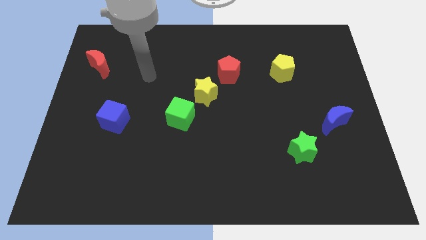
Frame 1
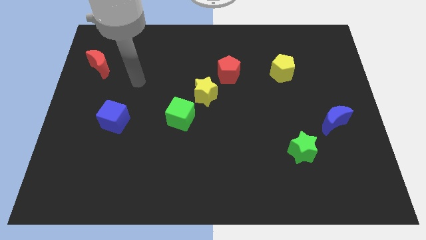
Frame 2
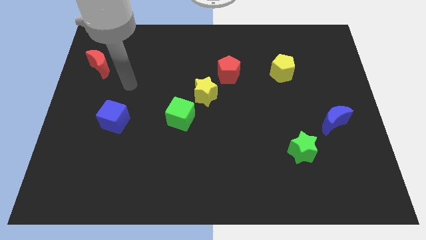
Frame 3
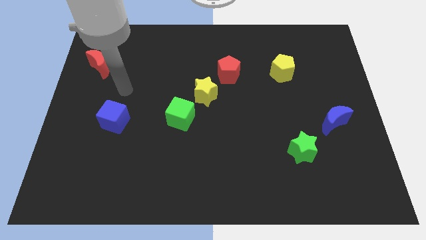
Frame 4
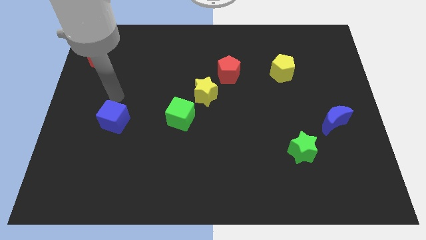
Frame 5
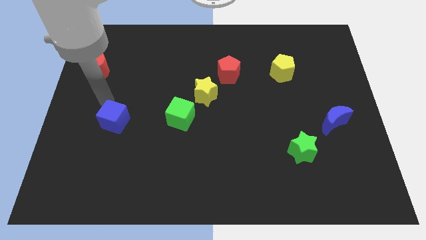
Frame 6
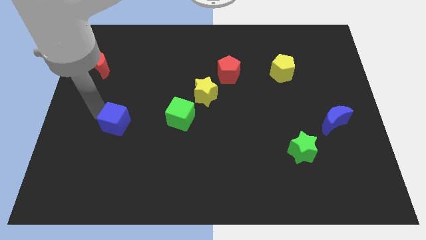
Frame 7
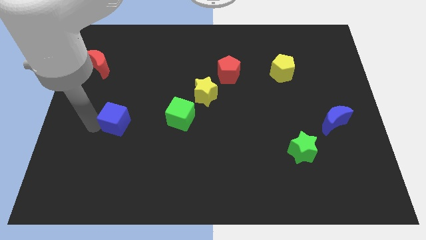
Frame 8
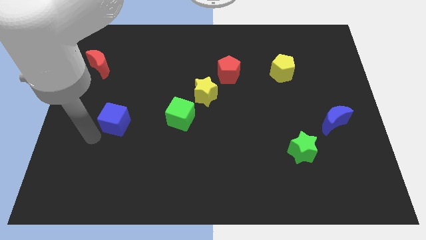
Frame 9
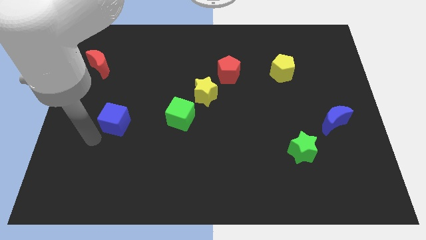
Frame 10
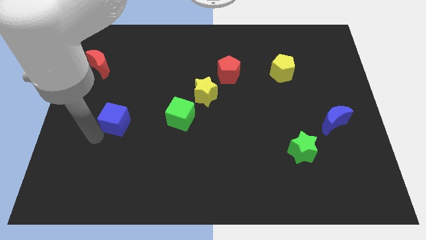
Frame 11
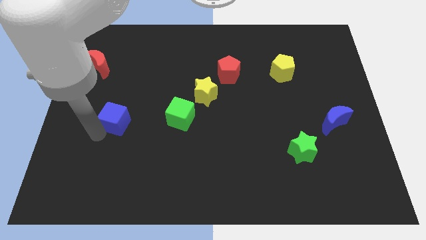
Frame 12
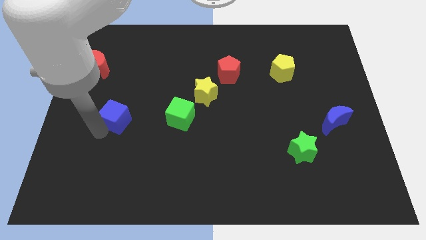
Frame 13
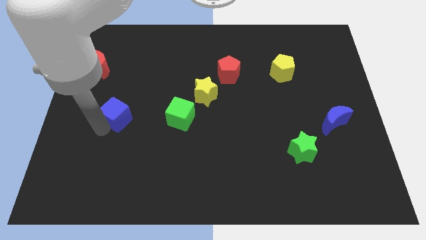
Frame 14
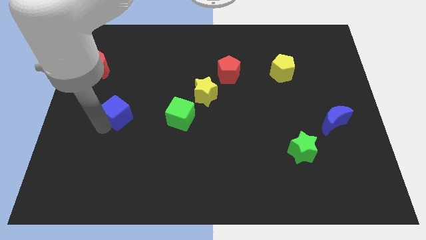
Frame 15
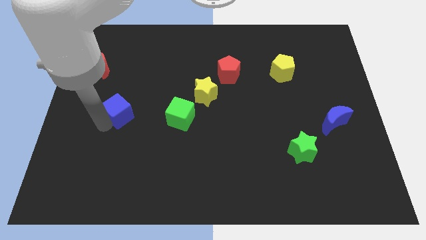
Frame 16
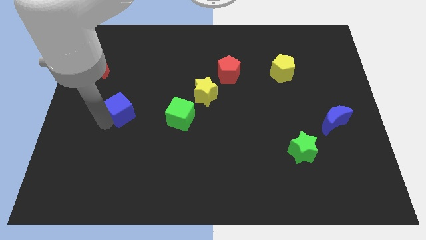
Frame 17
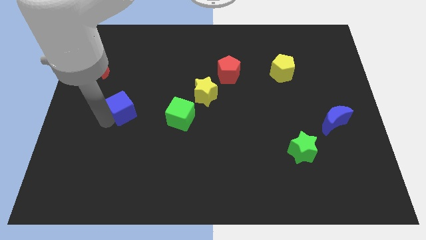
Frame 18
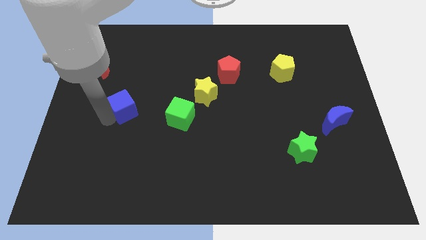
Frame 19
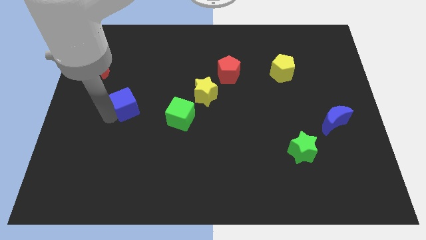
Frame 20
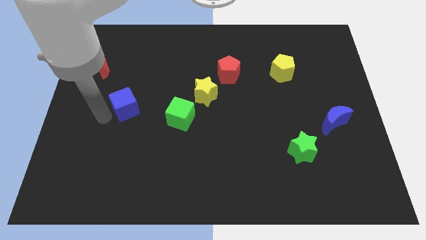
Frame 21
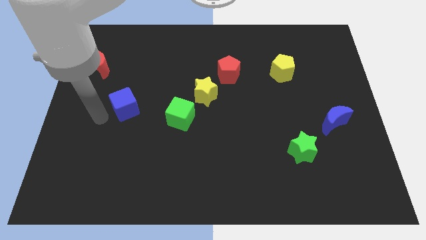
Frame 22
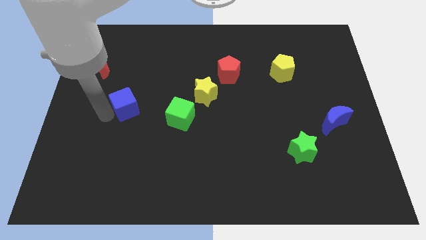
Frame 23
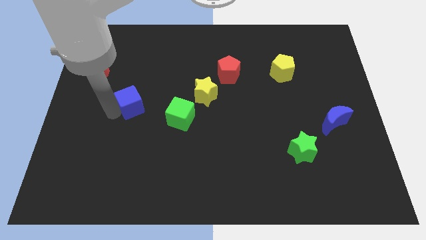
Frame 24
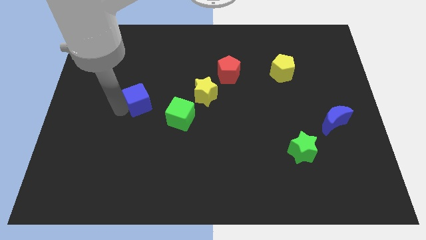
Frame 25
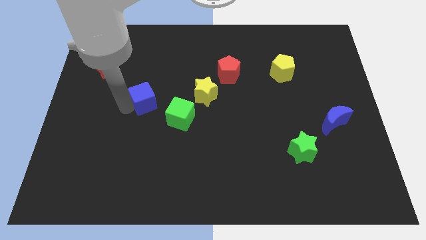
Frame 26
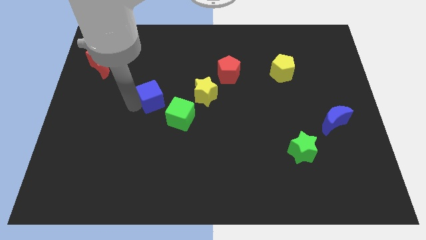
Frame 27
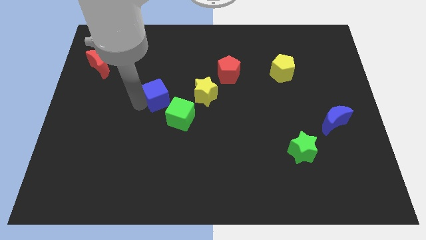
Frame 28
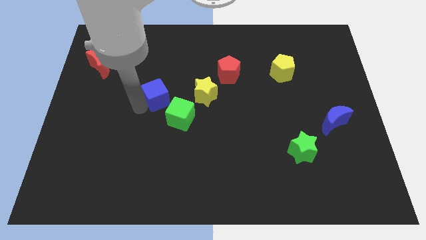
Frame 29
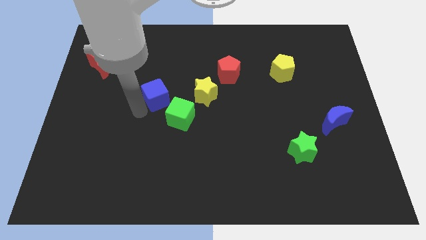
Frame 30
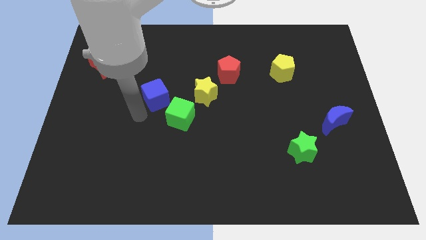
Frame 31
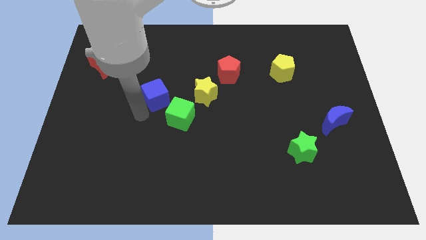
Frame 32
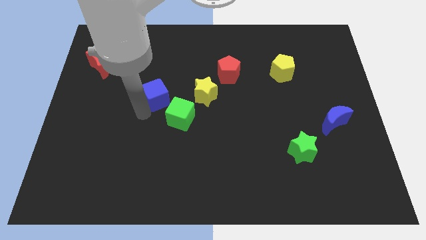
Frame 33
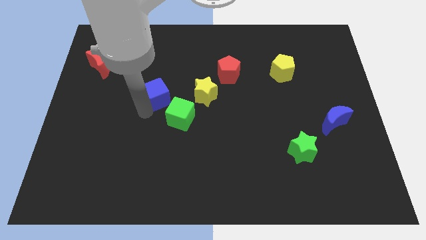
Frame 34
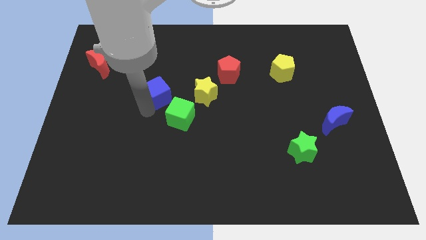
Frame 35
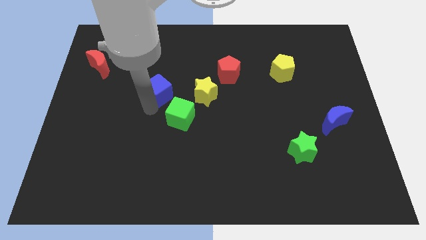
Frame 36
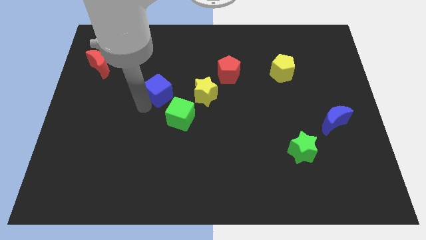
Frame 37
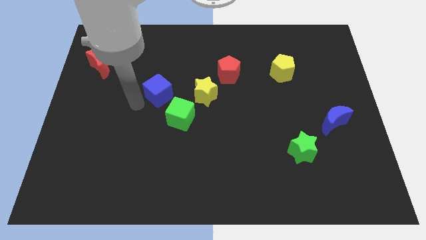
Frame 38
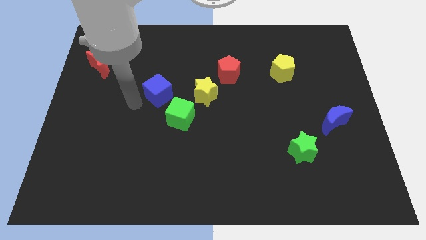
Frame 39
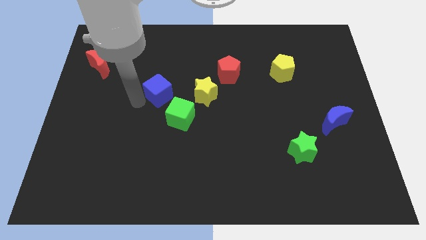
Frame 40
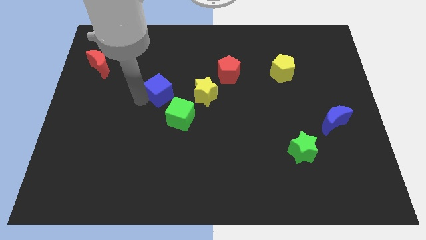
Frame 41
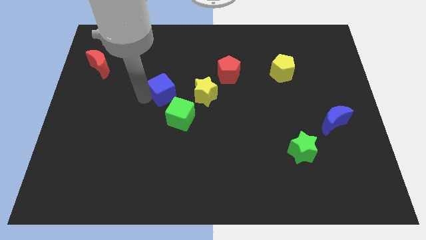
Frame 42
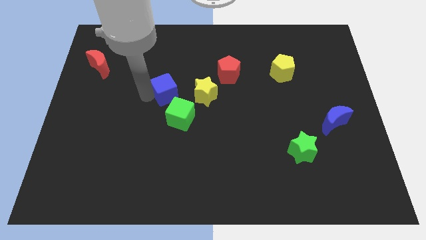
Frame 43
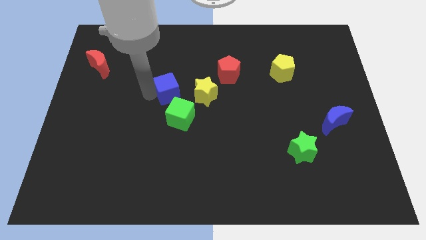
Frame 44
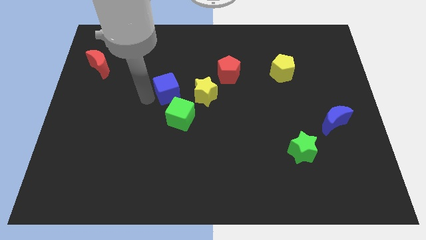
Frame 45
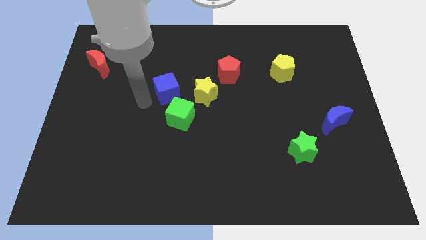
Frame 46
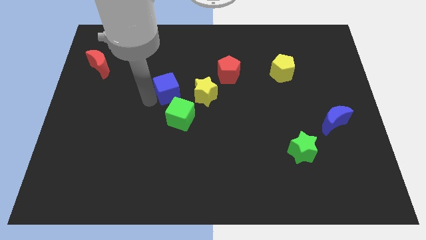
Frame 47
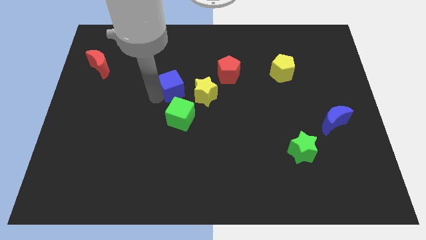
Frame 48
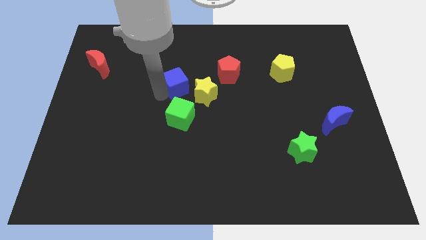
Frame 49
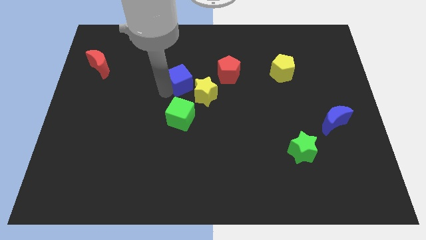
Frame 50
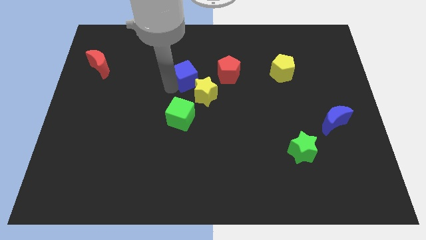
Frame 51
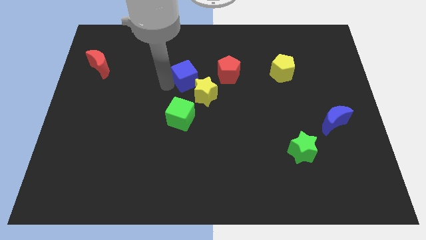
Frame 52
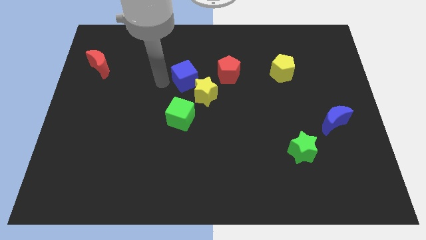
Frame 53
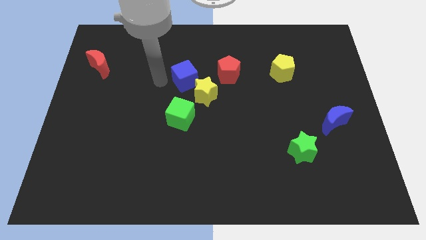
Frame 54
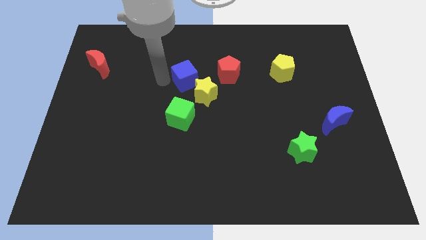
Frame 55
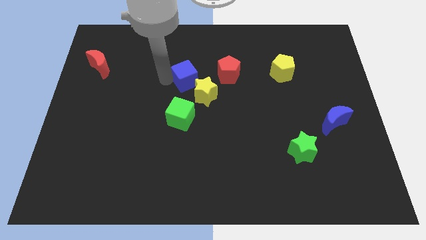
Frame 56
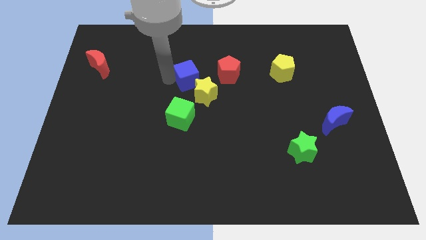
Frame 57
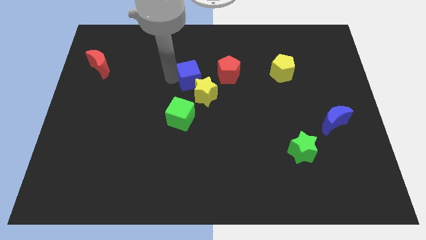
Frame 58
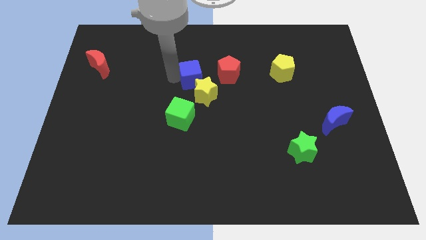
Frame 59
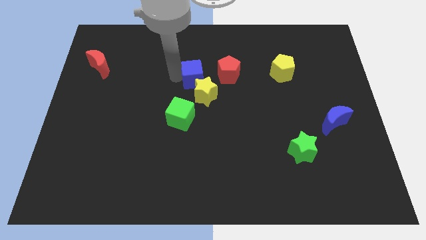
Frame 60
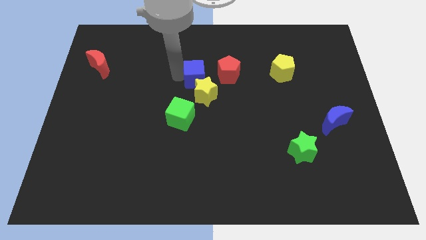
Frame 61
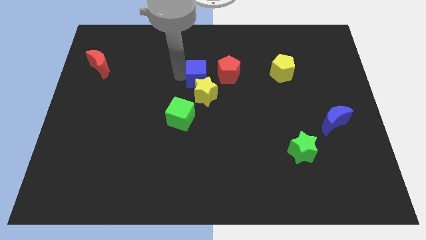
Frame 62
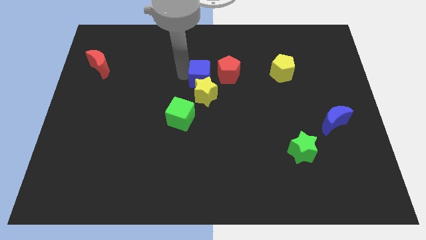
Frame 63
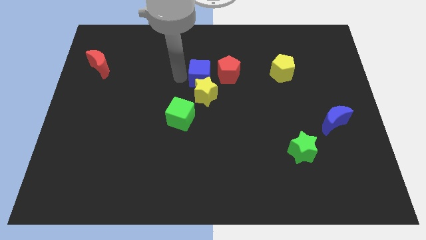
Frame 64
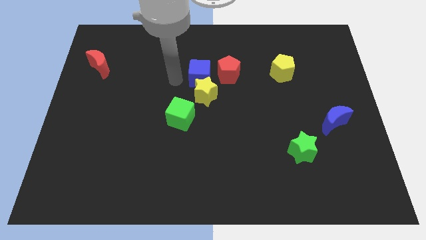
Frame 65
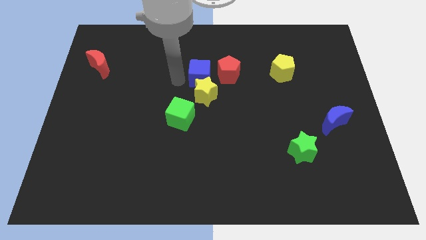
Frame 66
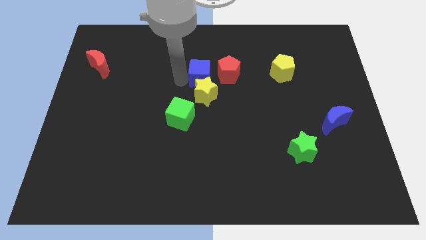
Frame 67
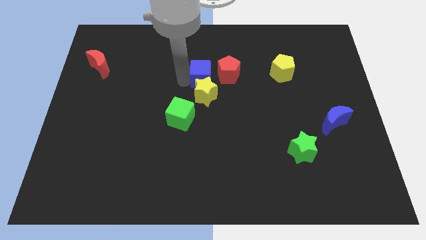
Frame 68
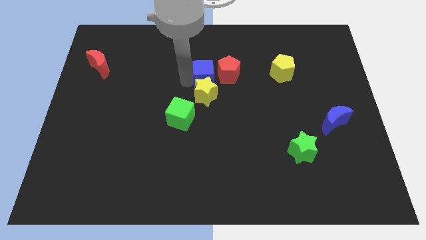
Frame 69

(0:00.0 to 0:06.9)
push the blue cube to the red pentagon
